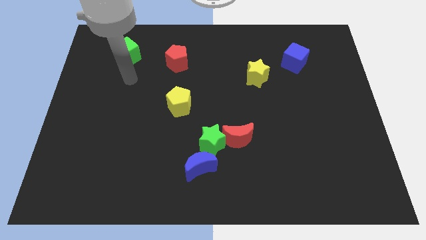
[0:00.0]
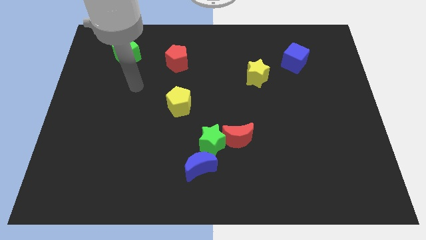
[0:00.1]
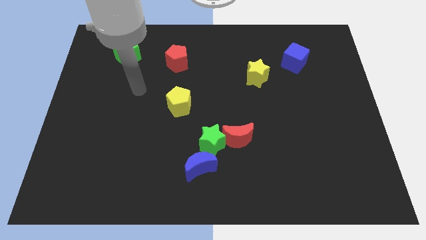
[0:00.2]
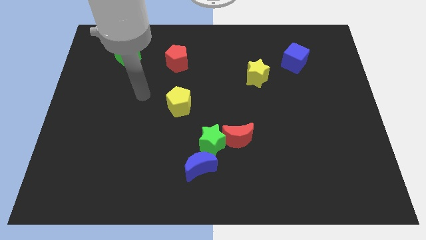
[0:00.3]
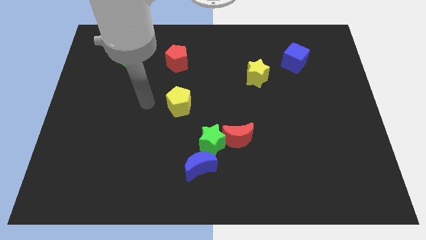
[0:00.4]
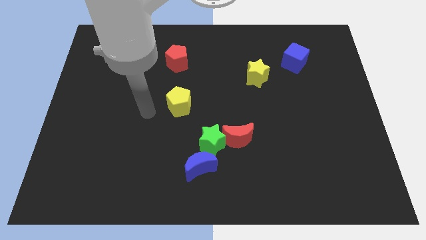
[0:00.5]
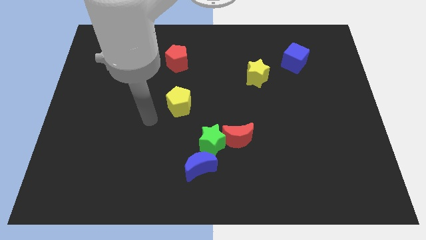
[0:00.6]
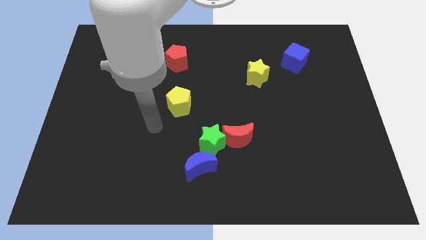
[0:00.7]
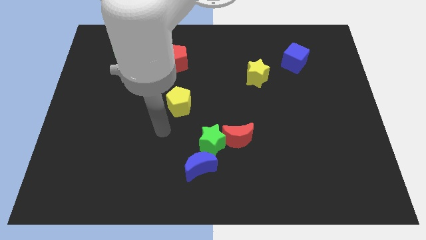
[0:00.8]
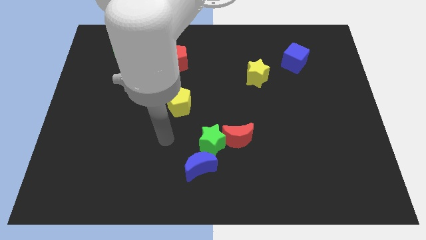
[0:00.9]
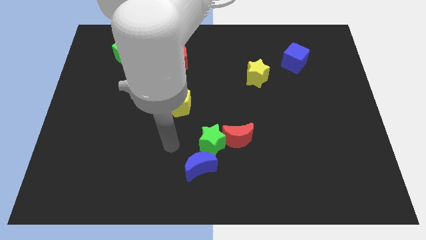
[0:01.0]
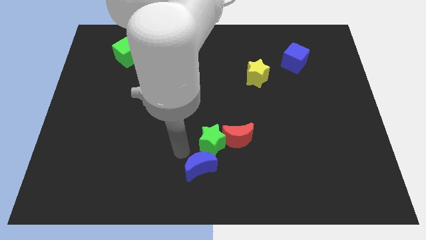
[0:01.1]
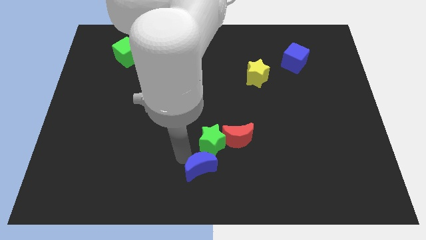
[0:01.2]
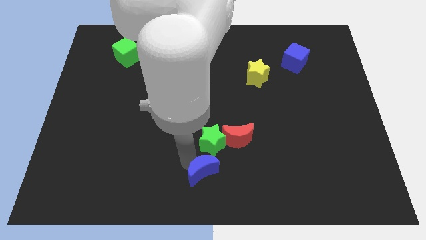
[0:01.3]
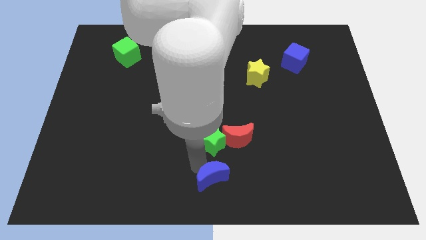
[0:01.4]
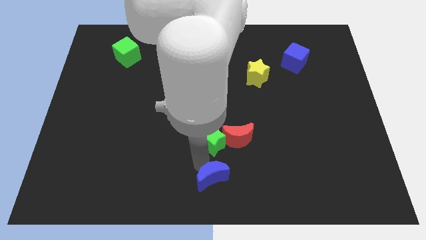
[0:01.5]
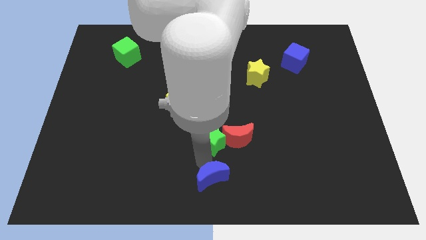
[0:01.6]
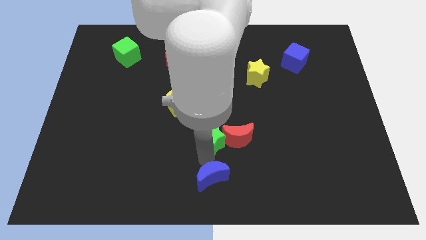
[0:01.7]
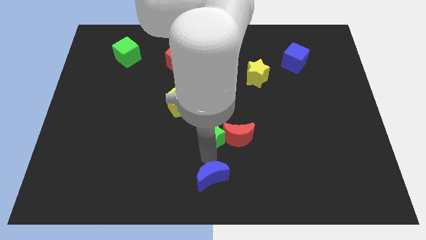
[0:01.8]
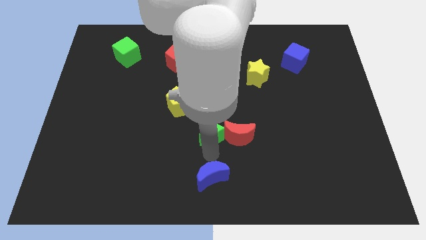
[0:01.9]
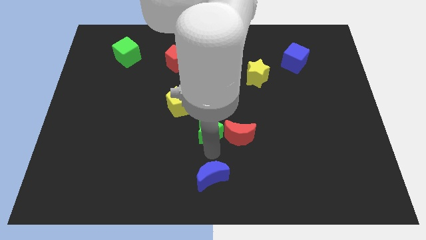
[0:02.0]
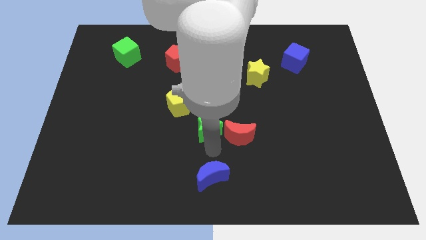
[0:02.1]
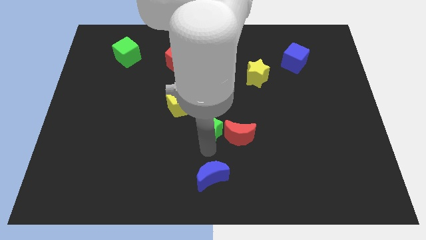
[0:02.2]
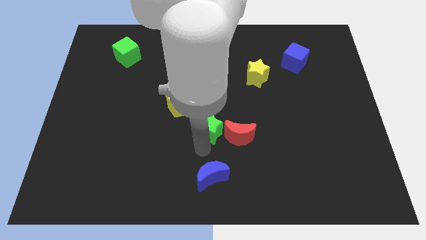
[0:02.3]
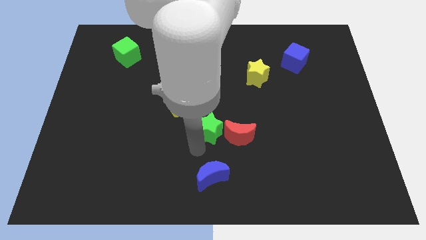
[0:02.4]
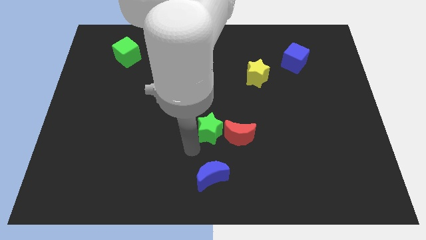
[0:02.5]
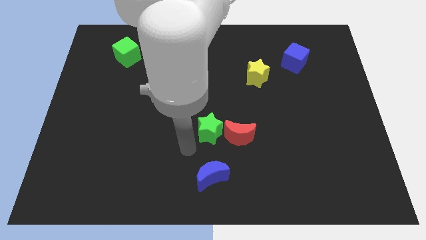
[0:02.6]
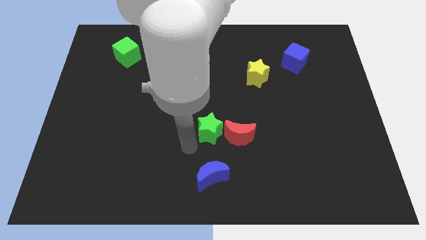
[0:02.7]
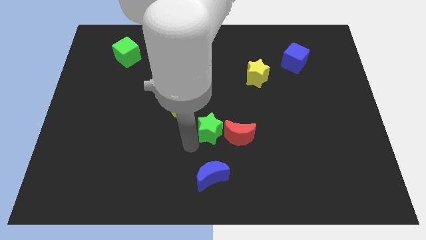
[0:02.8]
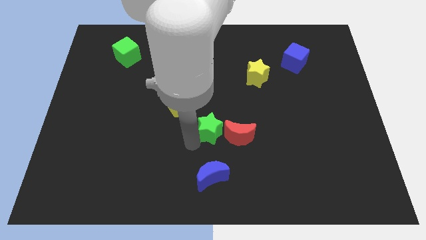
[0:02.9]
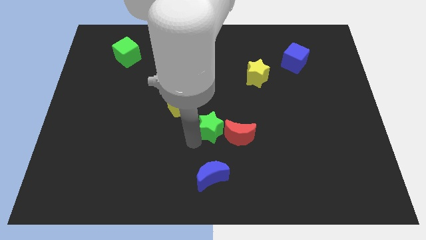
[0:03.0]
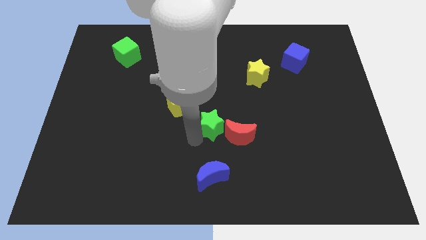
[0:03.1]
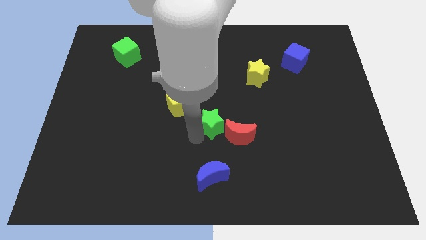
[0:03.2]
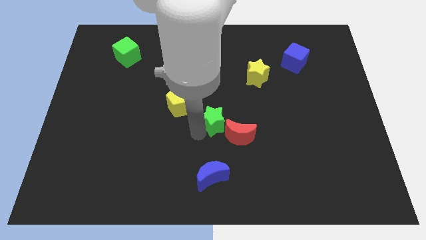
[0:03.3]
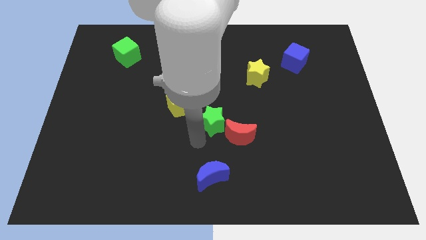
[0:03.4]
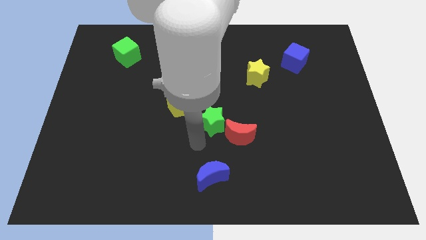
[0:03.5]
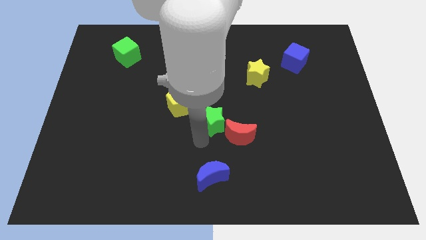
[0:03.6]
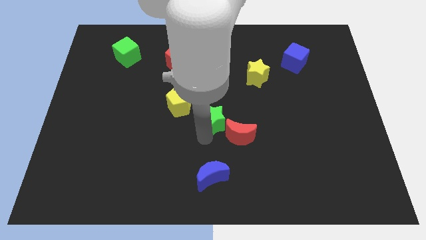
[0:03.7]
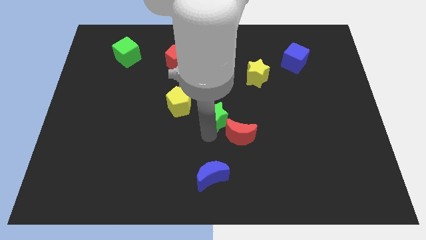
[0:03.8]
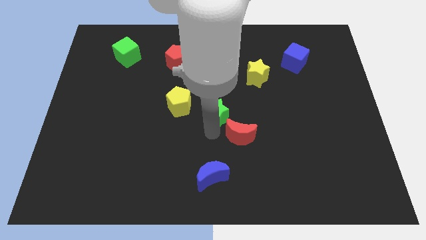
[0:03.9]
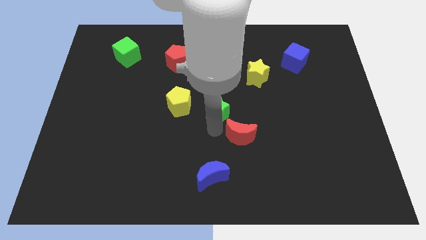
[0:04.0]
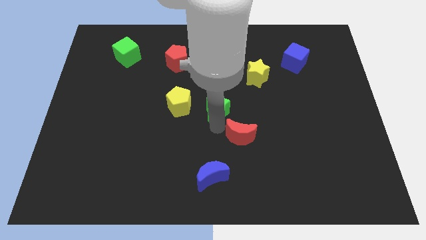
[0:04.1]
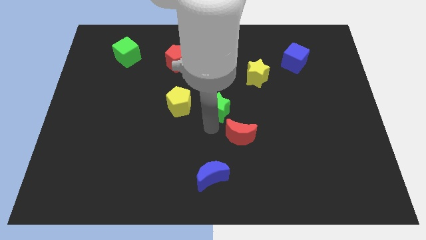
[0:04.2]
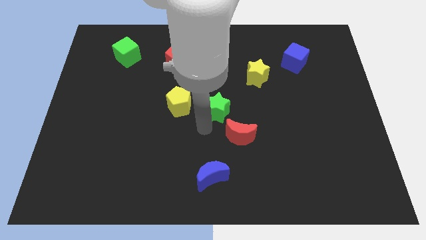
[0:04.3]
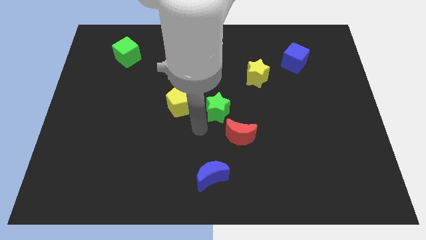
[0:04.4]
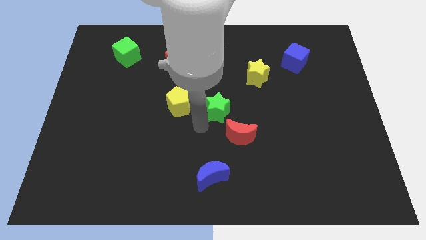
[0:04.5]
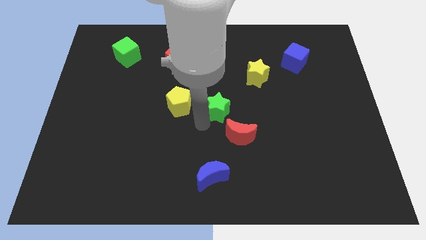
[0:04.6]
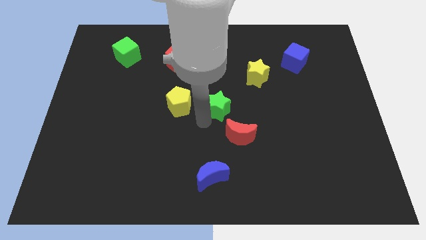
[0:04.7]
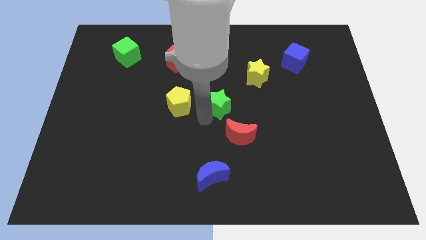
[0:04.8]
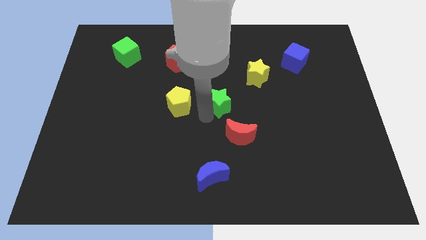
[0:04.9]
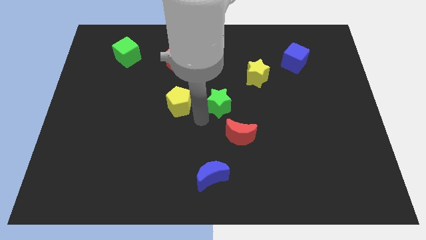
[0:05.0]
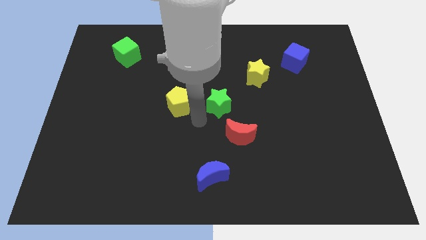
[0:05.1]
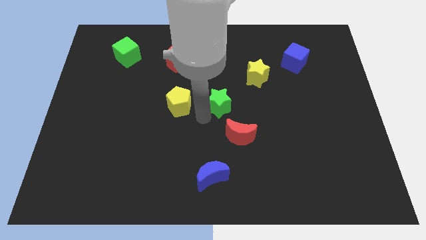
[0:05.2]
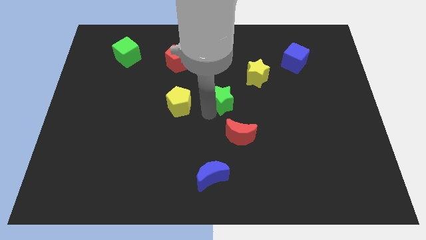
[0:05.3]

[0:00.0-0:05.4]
push the green star to the bottom left of the yellow star
